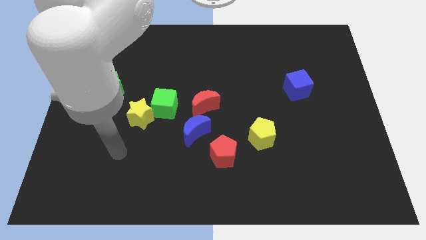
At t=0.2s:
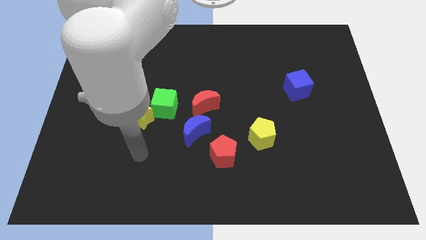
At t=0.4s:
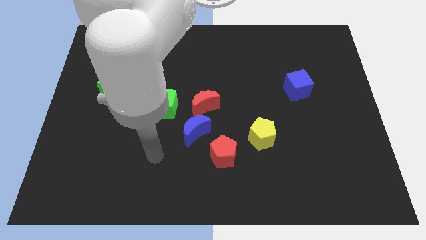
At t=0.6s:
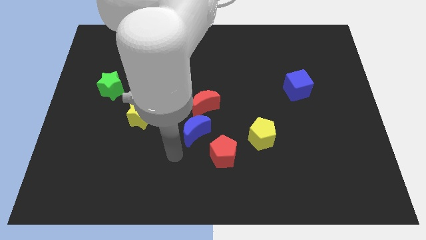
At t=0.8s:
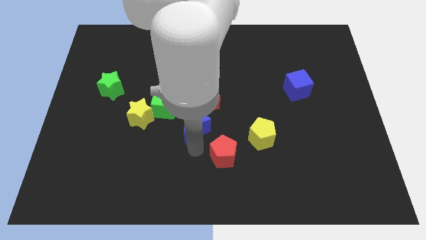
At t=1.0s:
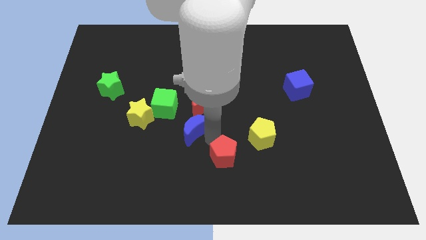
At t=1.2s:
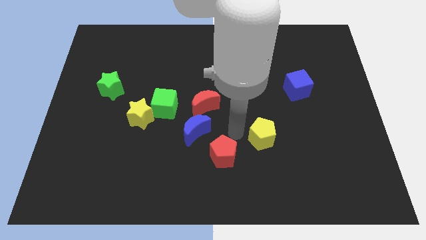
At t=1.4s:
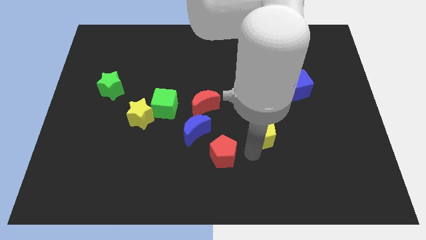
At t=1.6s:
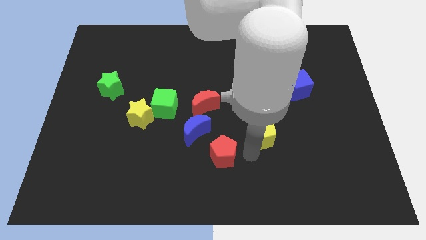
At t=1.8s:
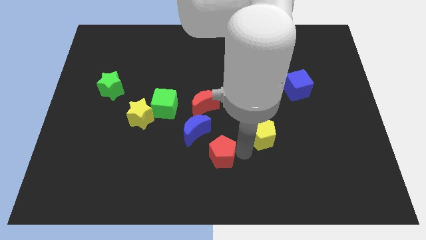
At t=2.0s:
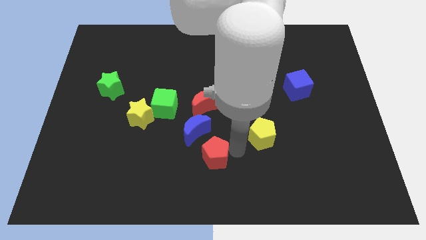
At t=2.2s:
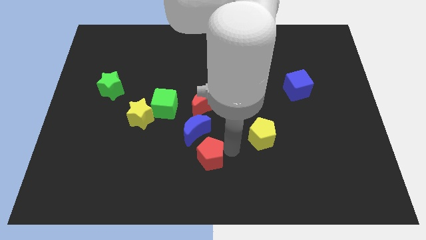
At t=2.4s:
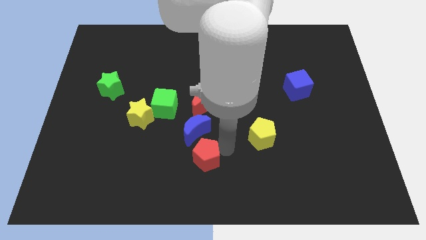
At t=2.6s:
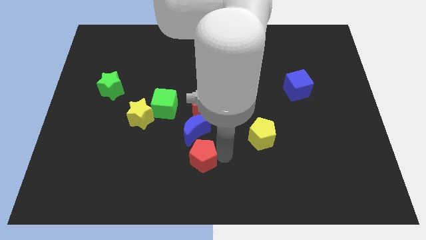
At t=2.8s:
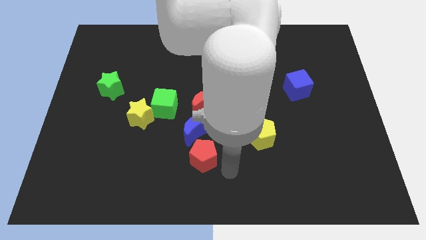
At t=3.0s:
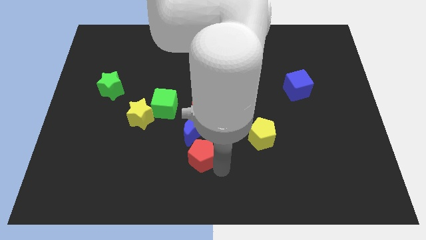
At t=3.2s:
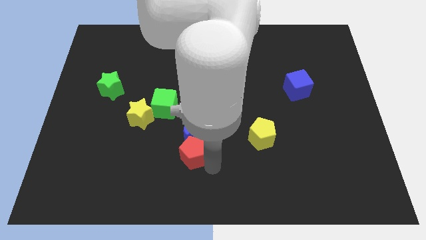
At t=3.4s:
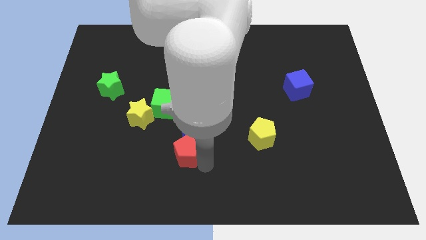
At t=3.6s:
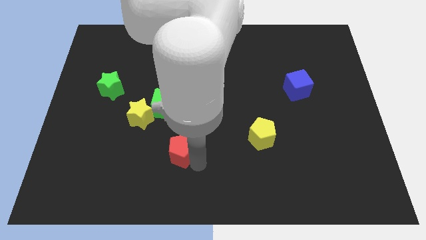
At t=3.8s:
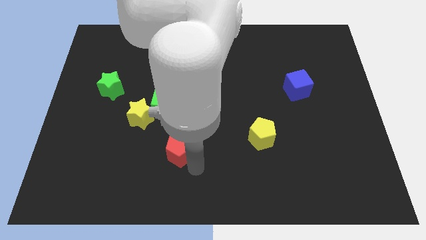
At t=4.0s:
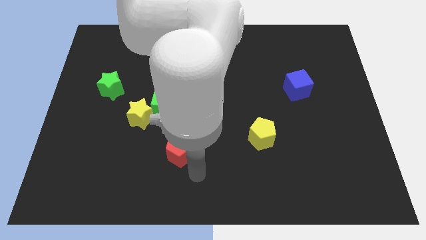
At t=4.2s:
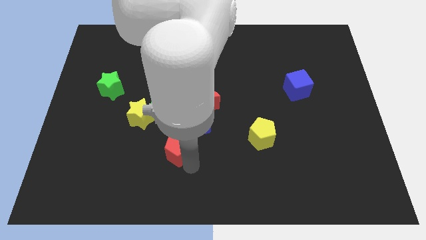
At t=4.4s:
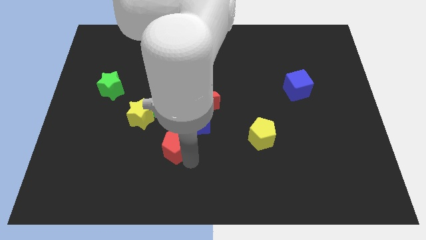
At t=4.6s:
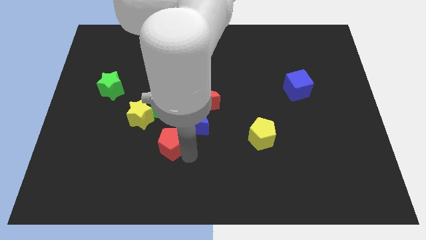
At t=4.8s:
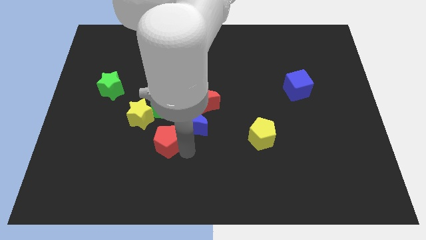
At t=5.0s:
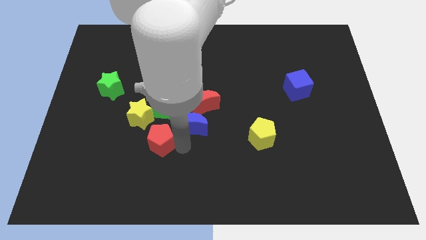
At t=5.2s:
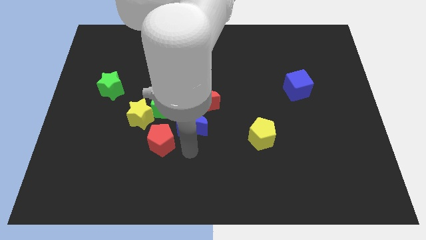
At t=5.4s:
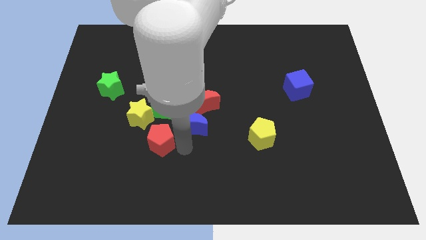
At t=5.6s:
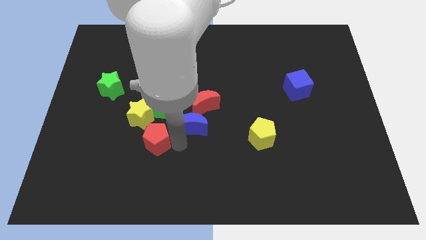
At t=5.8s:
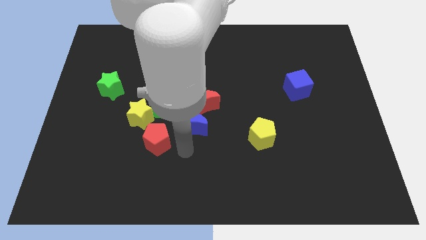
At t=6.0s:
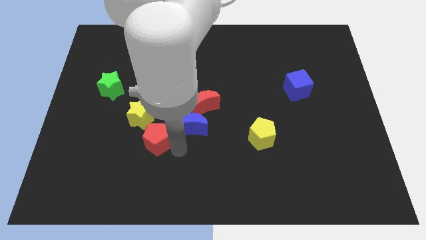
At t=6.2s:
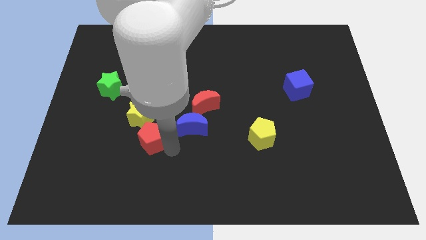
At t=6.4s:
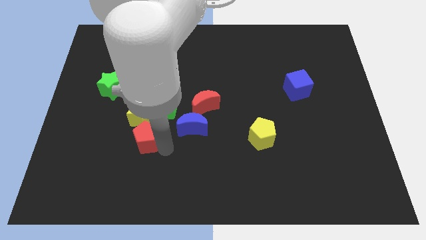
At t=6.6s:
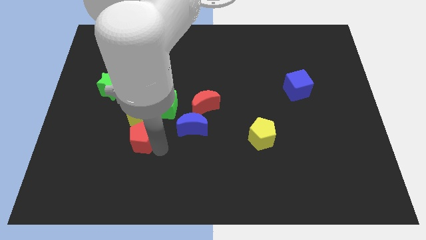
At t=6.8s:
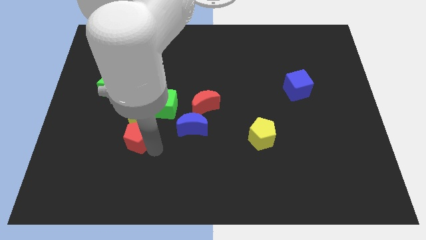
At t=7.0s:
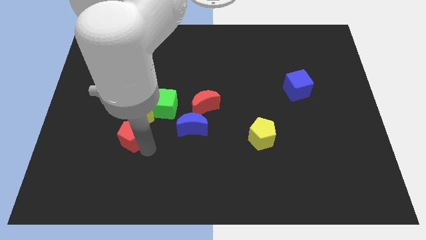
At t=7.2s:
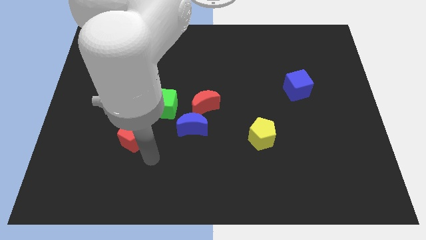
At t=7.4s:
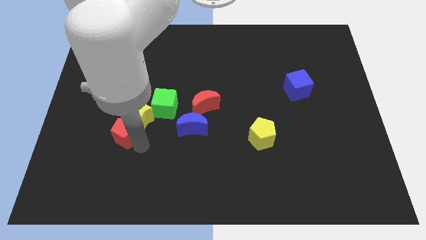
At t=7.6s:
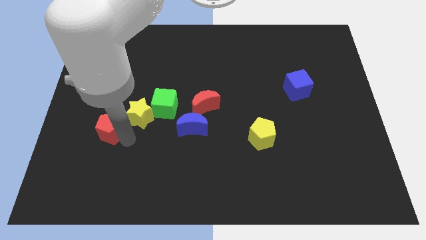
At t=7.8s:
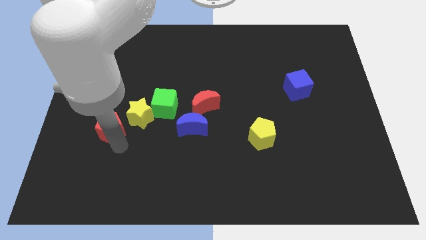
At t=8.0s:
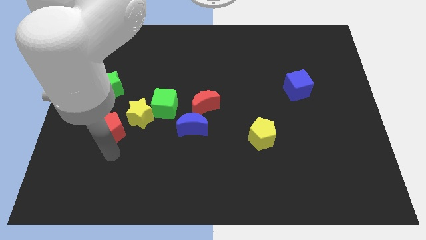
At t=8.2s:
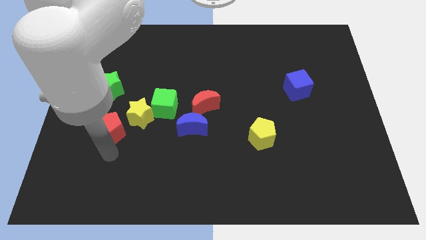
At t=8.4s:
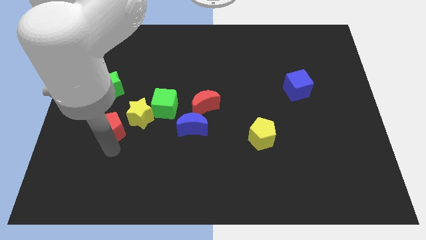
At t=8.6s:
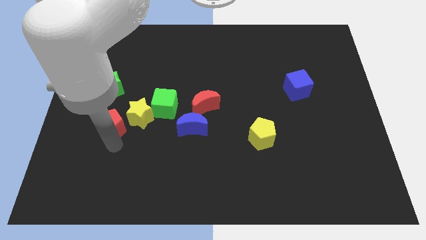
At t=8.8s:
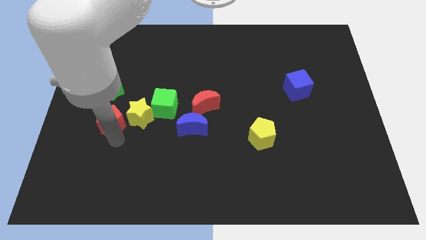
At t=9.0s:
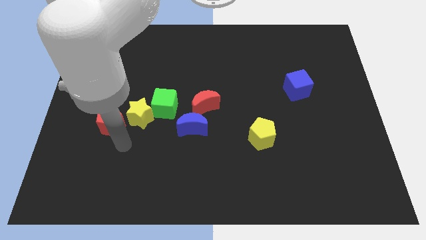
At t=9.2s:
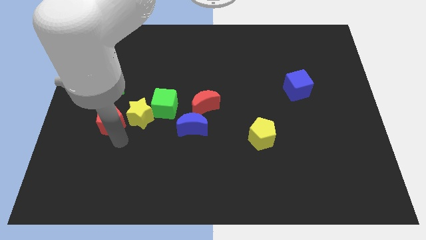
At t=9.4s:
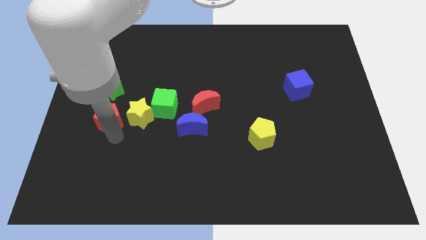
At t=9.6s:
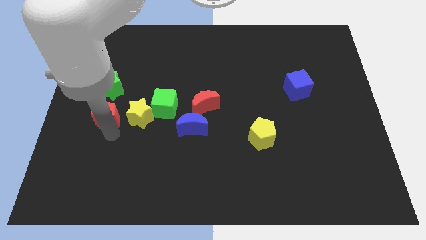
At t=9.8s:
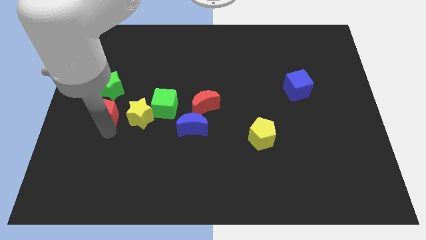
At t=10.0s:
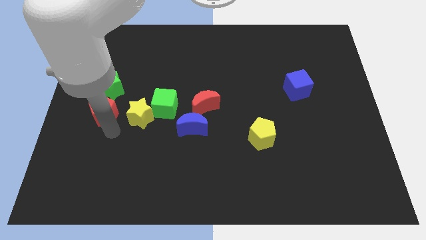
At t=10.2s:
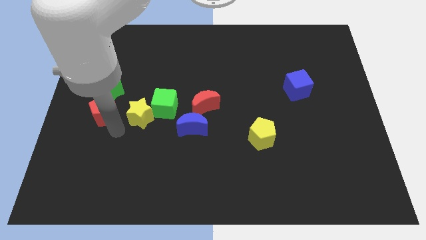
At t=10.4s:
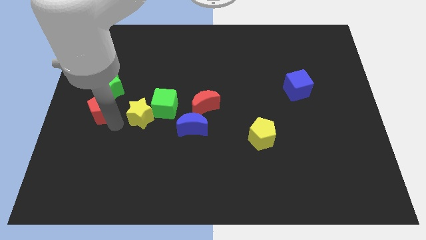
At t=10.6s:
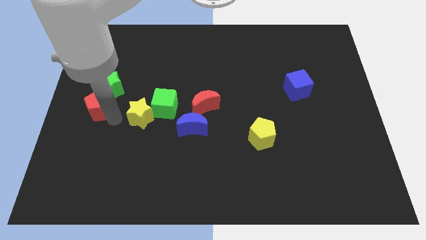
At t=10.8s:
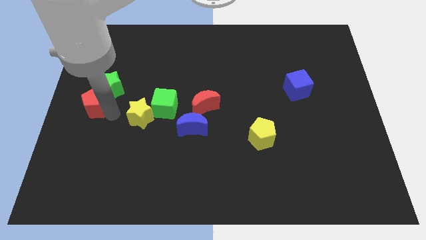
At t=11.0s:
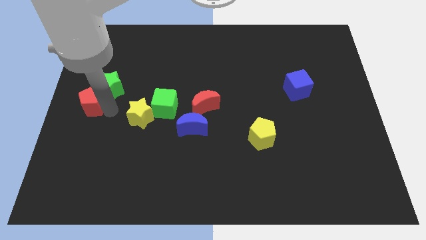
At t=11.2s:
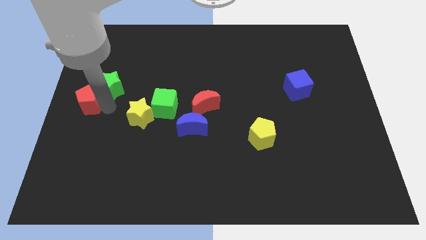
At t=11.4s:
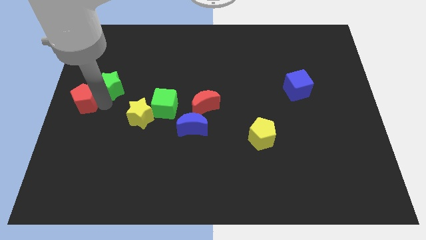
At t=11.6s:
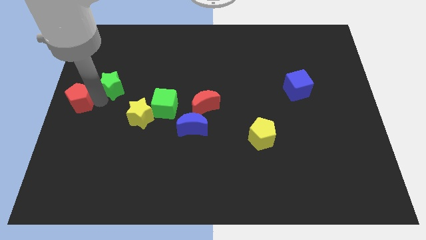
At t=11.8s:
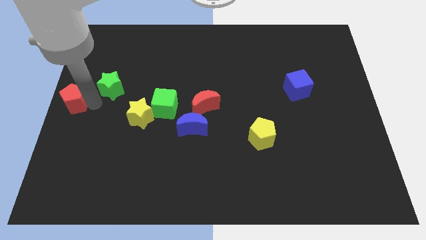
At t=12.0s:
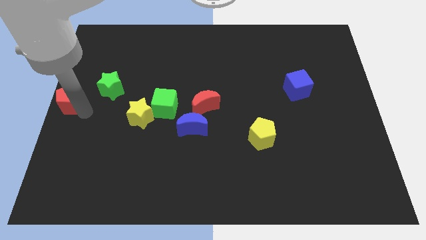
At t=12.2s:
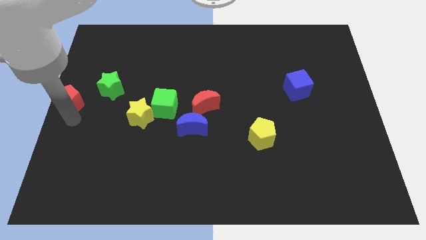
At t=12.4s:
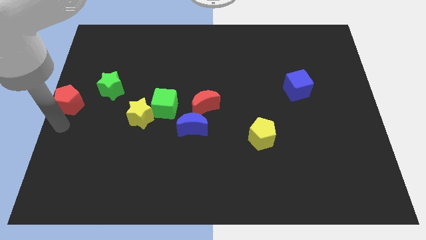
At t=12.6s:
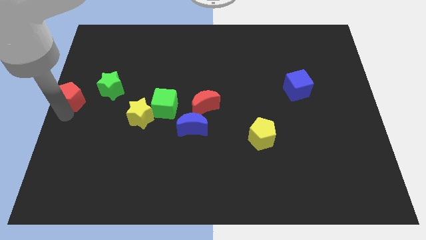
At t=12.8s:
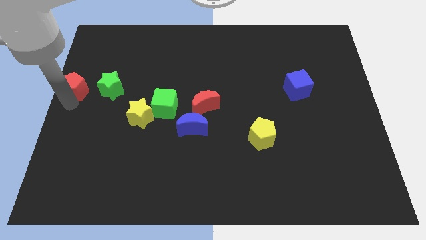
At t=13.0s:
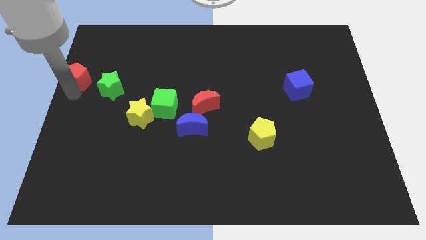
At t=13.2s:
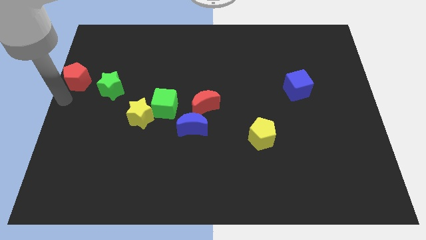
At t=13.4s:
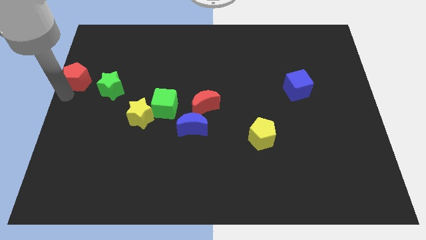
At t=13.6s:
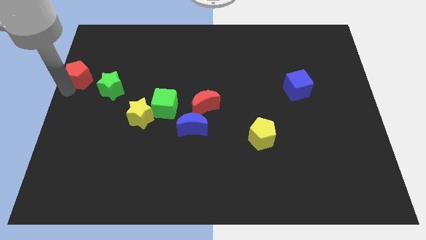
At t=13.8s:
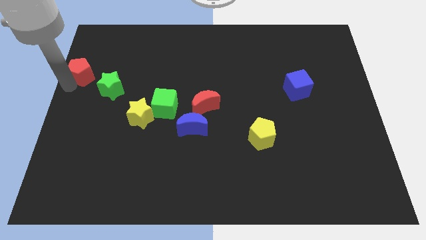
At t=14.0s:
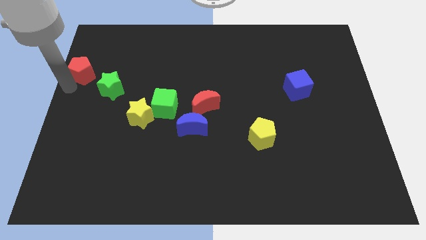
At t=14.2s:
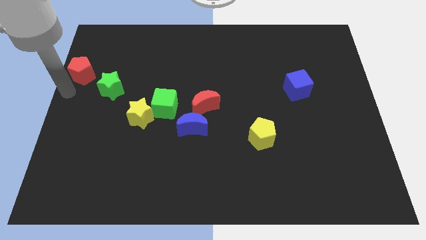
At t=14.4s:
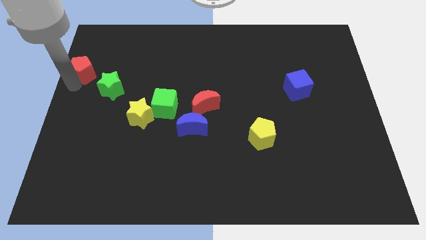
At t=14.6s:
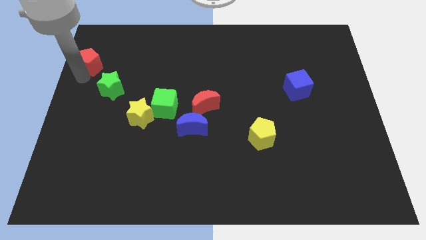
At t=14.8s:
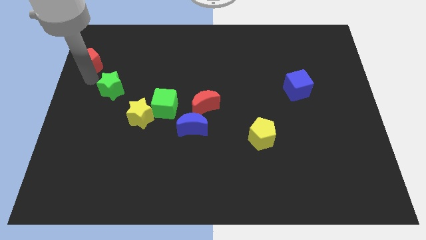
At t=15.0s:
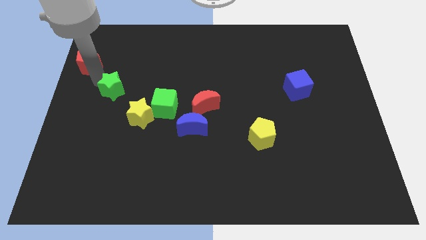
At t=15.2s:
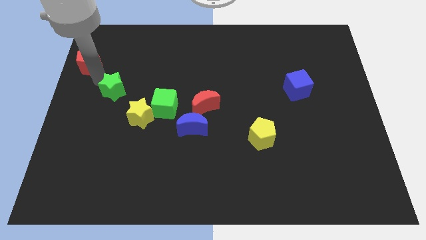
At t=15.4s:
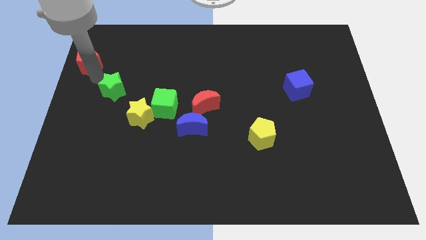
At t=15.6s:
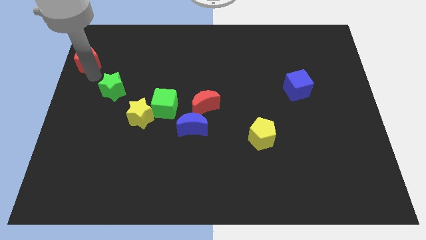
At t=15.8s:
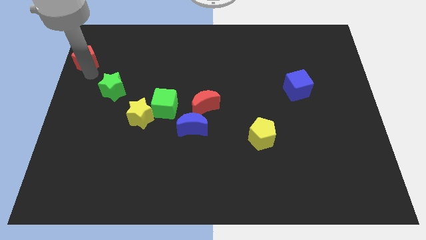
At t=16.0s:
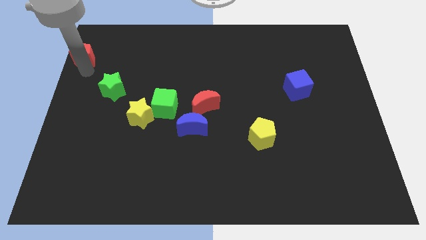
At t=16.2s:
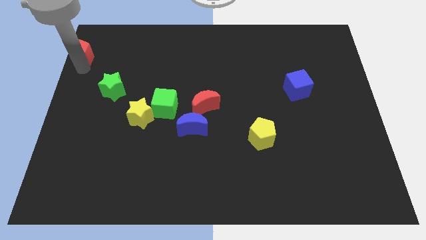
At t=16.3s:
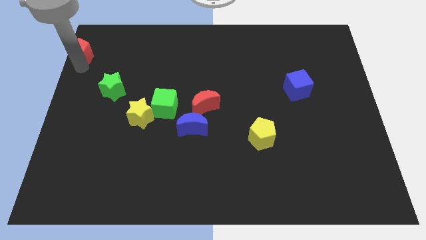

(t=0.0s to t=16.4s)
slide the red pentagon to the top left of the board
